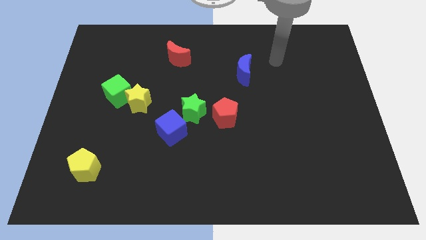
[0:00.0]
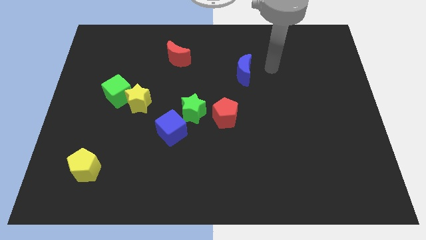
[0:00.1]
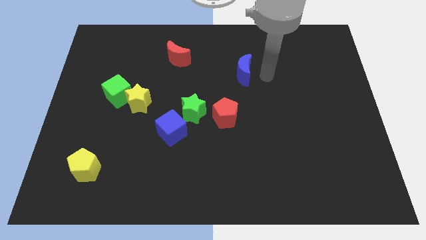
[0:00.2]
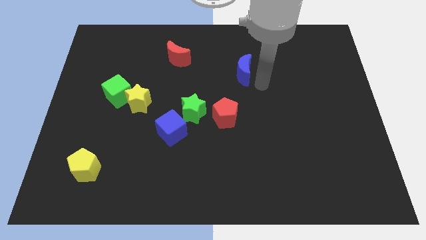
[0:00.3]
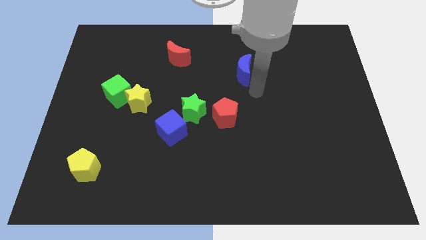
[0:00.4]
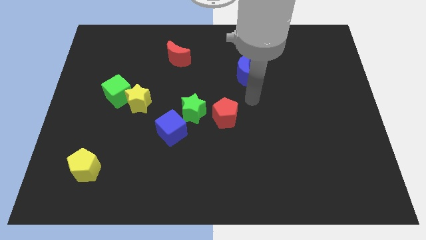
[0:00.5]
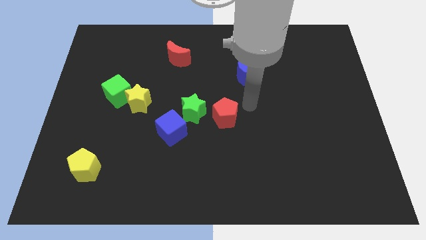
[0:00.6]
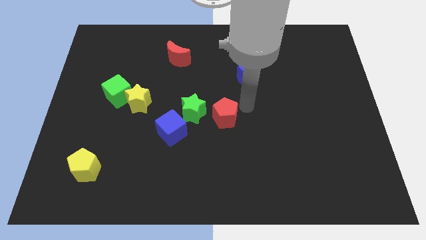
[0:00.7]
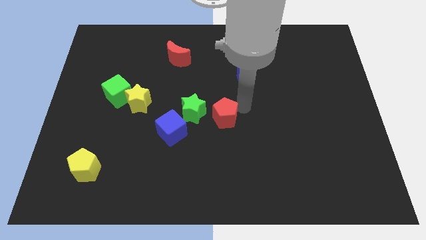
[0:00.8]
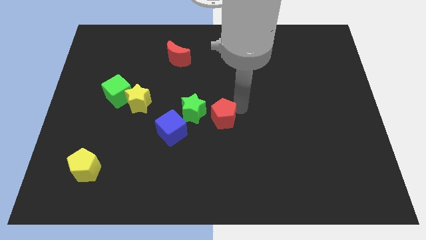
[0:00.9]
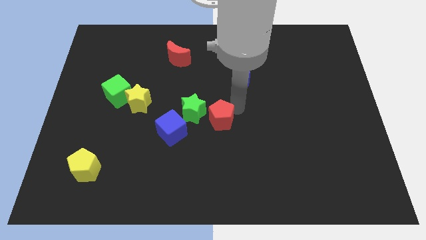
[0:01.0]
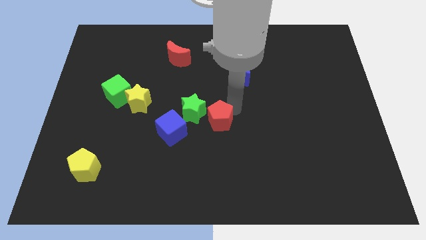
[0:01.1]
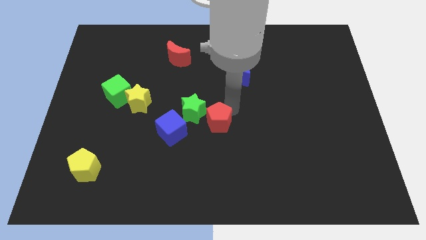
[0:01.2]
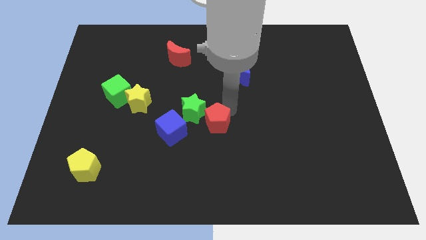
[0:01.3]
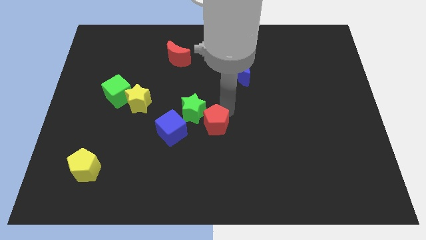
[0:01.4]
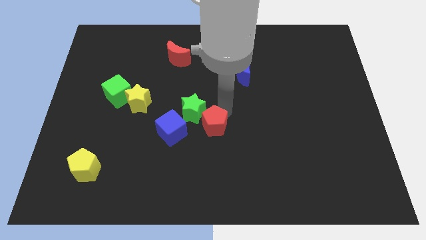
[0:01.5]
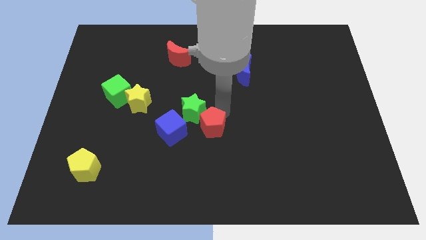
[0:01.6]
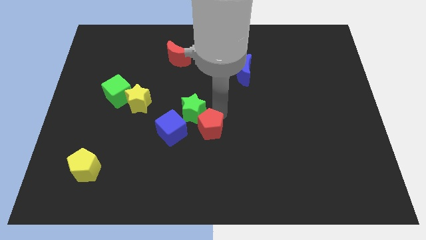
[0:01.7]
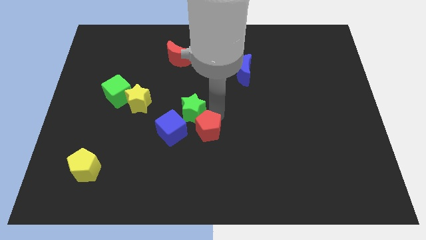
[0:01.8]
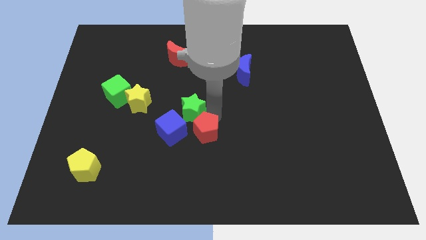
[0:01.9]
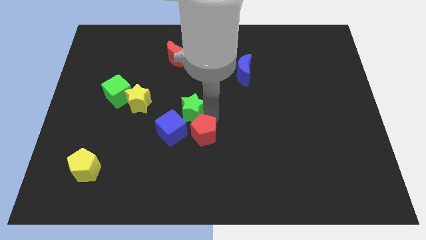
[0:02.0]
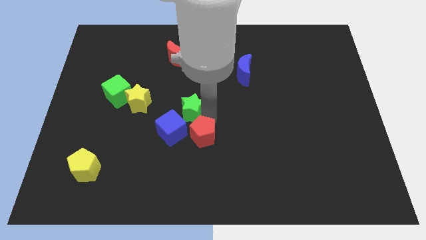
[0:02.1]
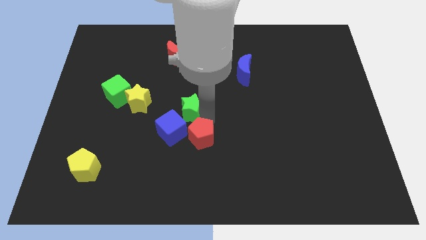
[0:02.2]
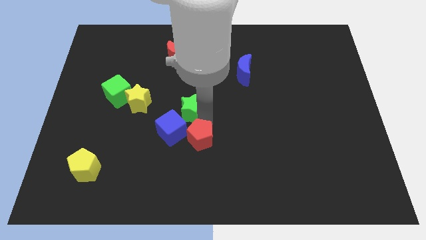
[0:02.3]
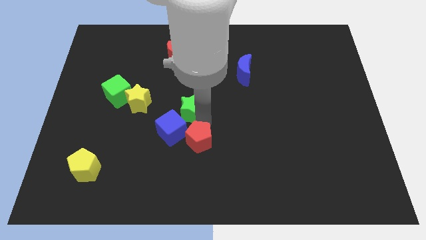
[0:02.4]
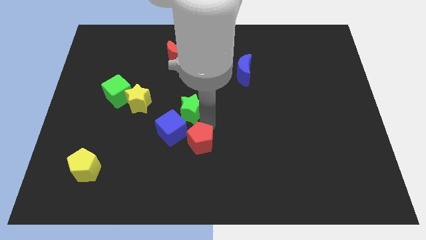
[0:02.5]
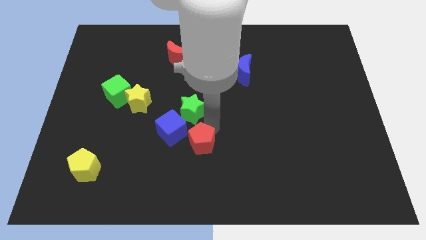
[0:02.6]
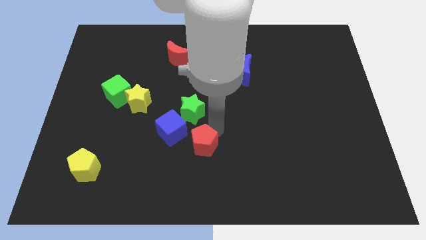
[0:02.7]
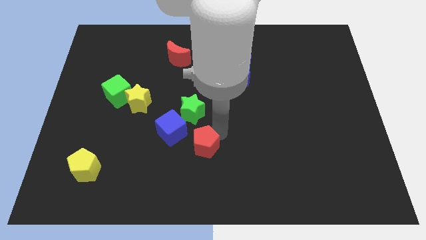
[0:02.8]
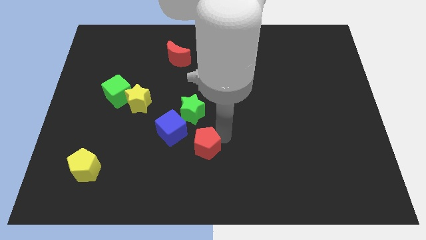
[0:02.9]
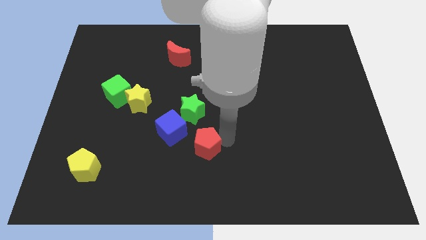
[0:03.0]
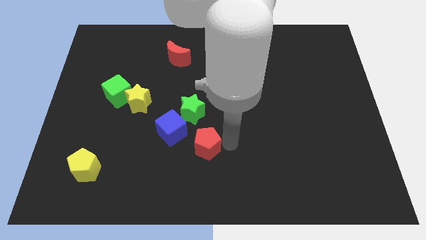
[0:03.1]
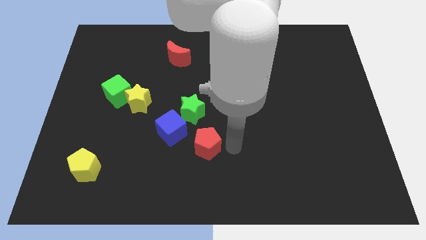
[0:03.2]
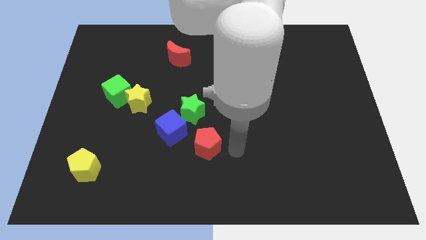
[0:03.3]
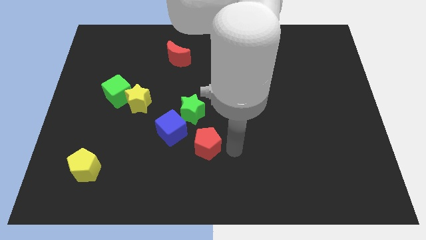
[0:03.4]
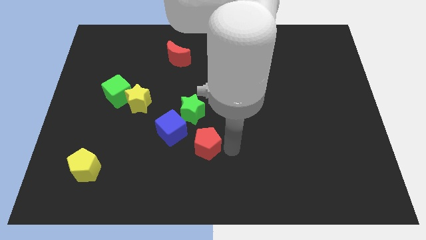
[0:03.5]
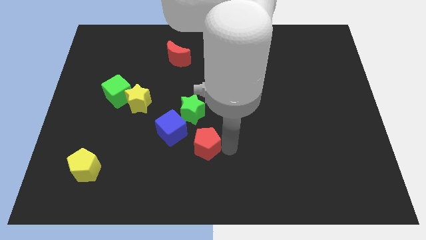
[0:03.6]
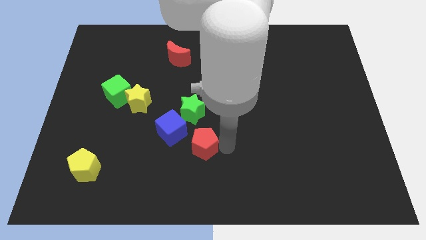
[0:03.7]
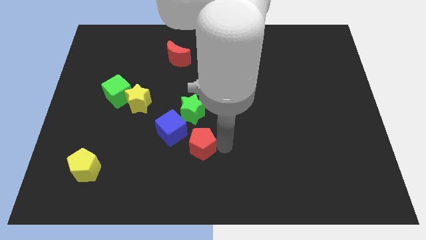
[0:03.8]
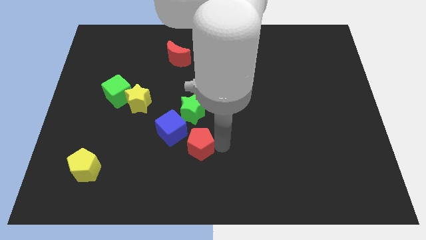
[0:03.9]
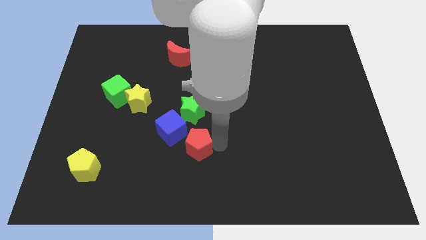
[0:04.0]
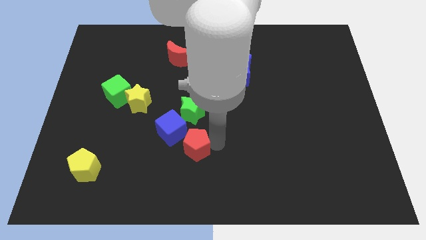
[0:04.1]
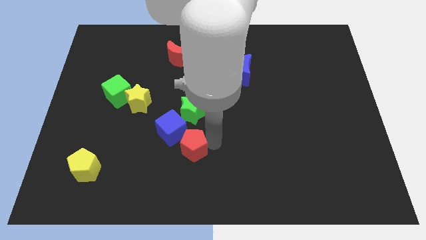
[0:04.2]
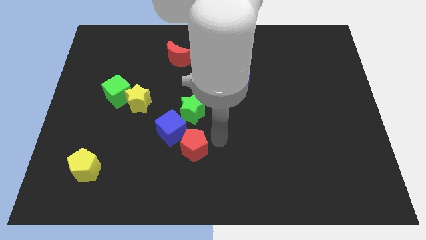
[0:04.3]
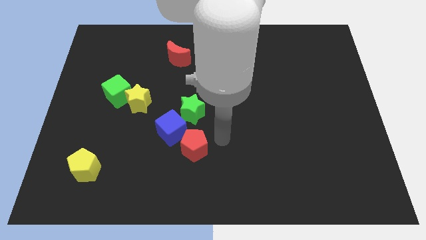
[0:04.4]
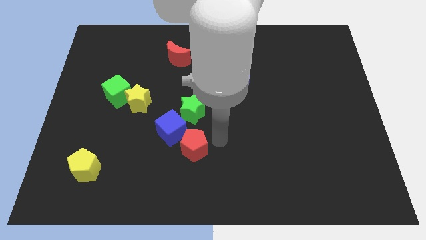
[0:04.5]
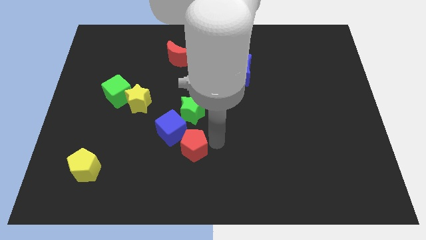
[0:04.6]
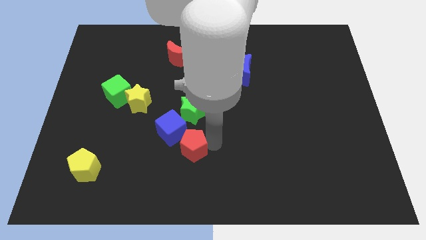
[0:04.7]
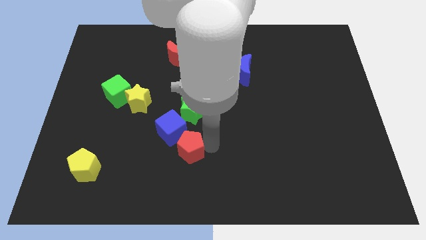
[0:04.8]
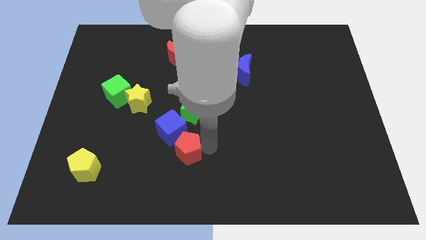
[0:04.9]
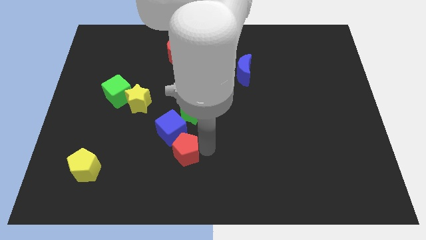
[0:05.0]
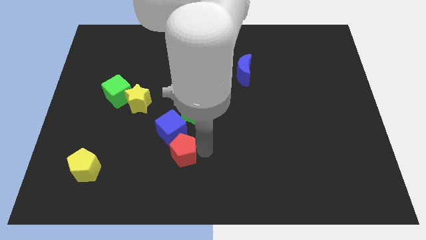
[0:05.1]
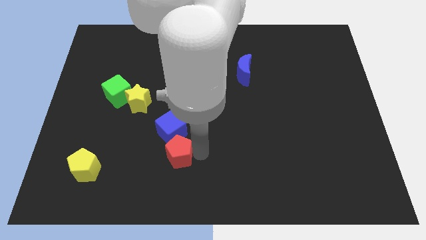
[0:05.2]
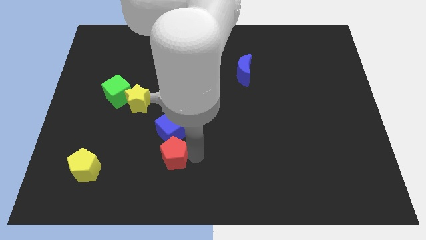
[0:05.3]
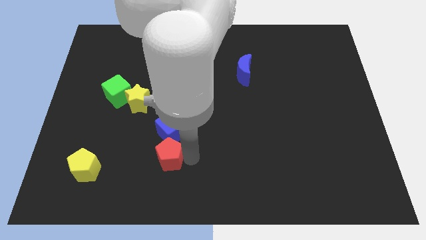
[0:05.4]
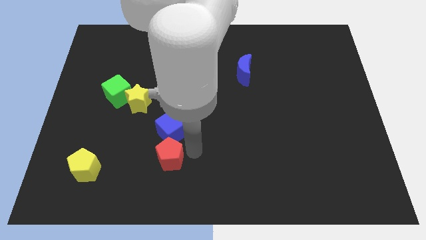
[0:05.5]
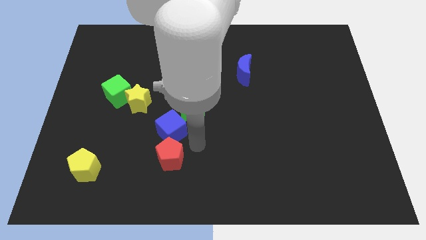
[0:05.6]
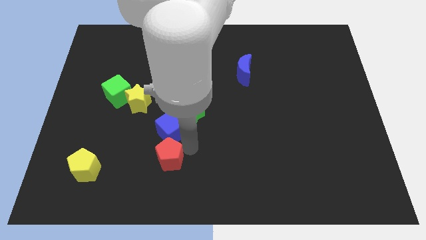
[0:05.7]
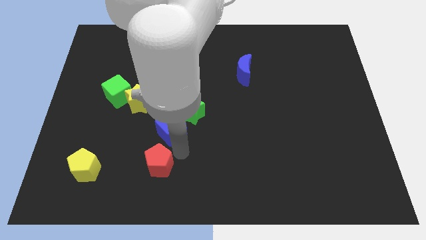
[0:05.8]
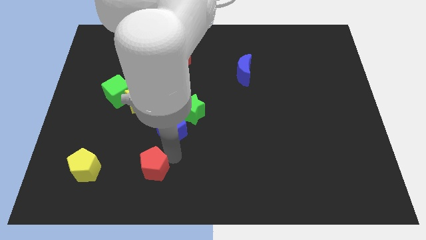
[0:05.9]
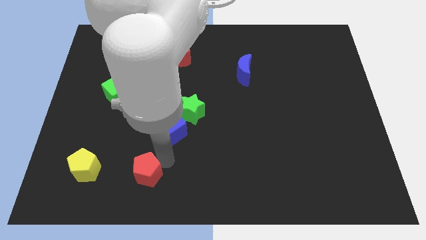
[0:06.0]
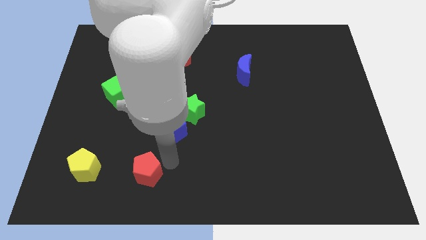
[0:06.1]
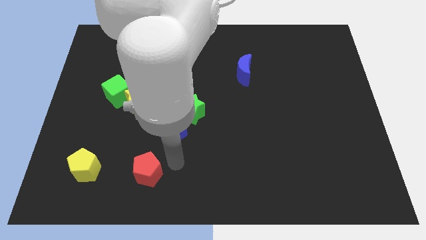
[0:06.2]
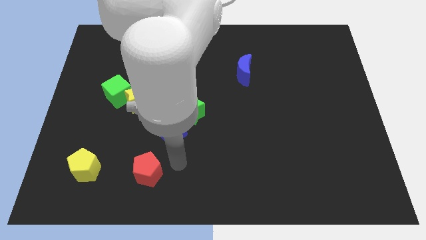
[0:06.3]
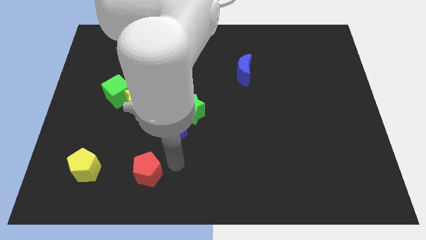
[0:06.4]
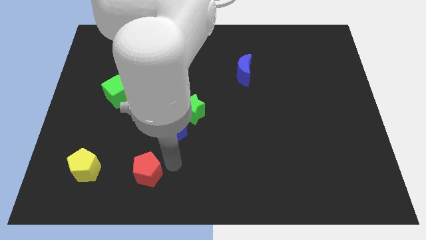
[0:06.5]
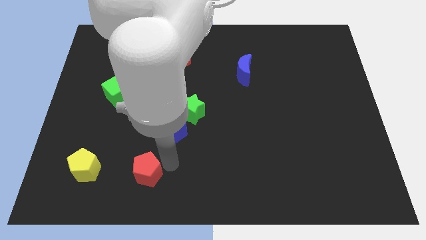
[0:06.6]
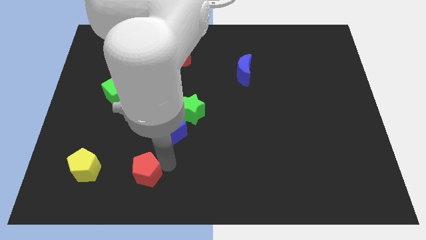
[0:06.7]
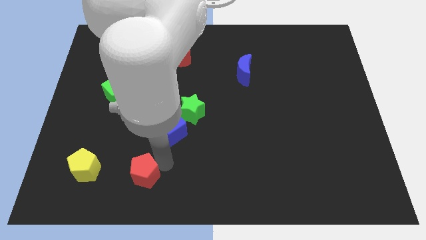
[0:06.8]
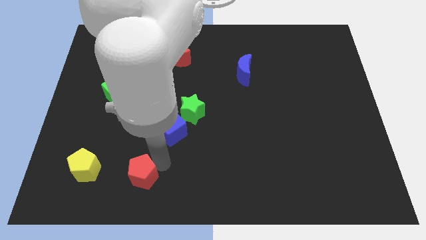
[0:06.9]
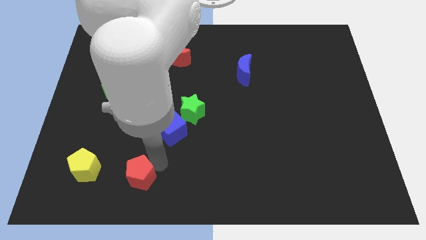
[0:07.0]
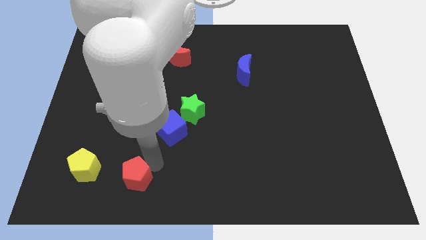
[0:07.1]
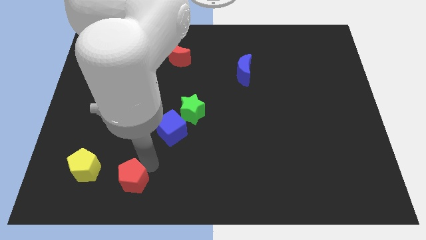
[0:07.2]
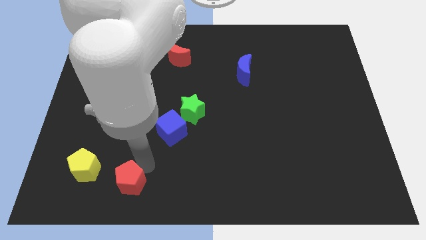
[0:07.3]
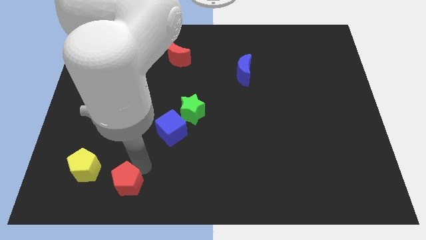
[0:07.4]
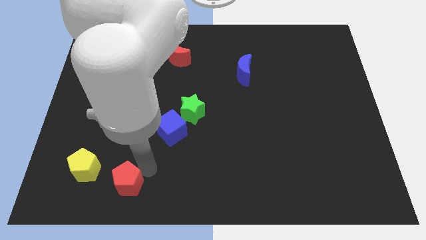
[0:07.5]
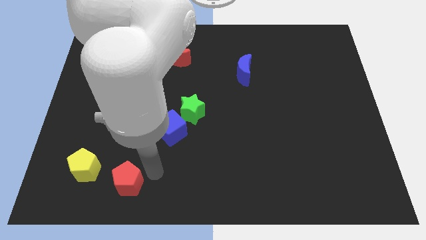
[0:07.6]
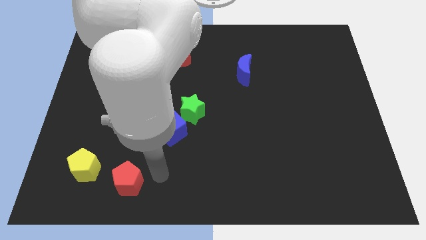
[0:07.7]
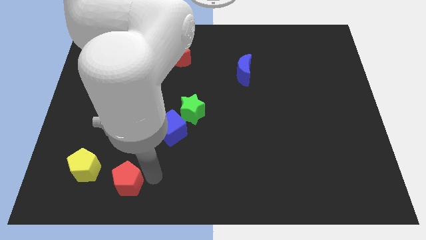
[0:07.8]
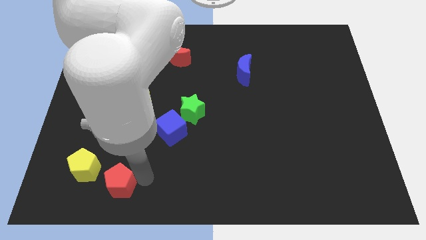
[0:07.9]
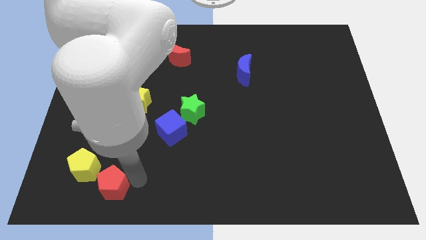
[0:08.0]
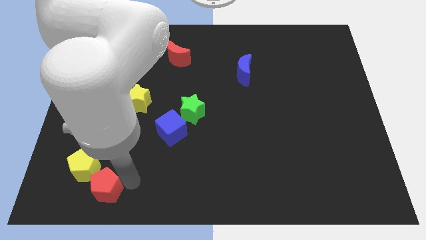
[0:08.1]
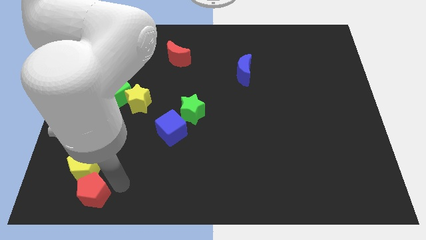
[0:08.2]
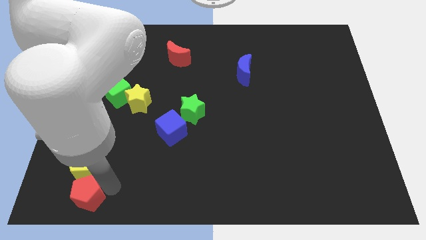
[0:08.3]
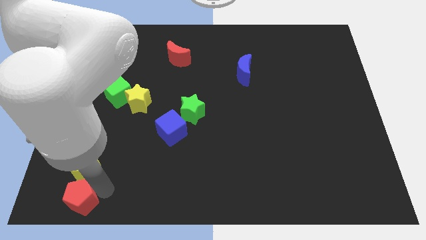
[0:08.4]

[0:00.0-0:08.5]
push the red pentagon to the bottom left
